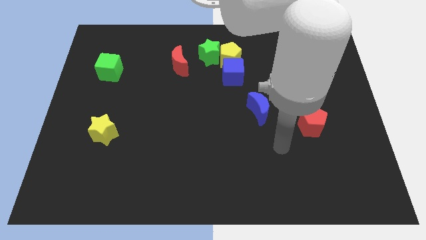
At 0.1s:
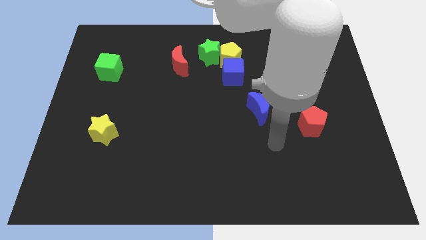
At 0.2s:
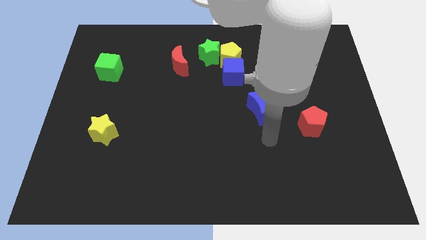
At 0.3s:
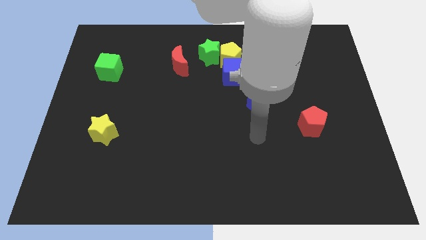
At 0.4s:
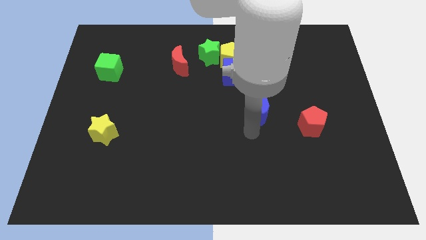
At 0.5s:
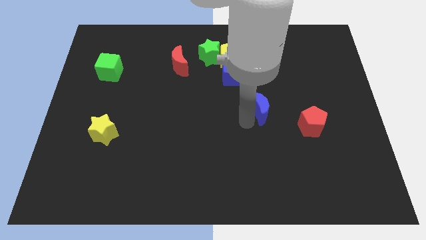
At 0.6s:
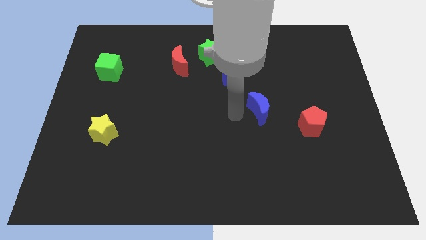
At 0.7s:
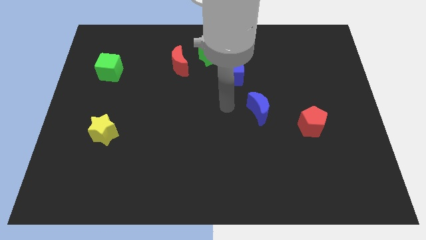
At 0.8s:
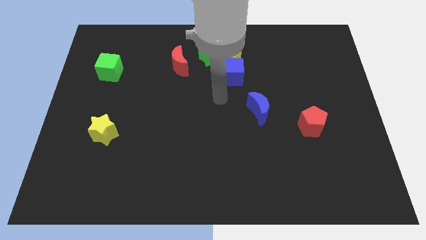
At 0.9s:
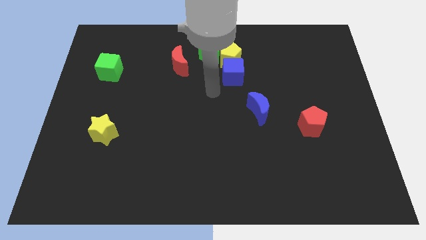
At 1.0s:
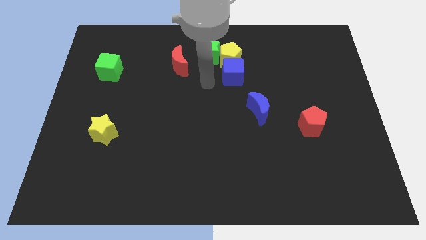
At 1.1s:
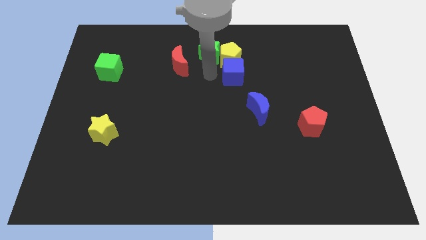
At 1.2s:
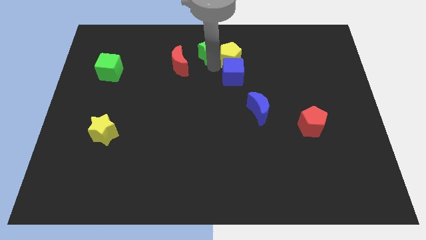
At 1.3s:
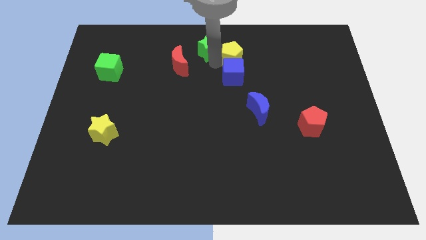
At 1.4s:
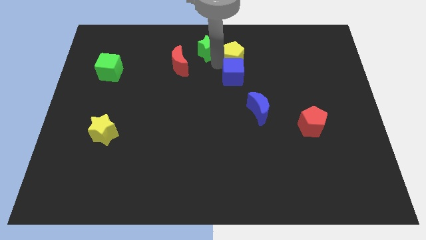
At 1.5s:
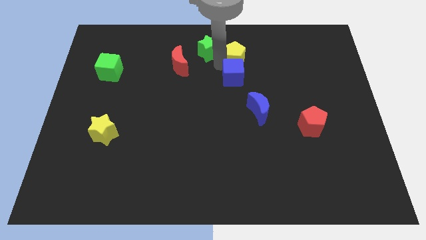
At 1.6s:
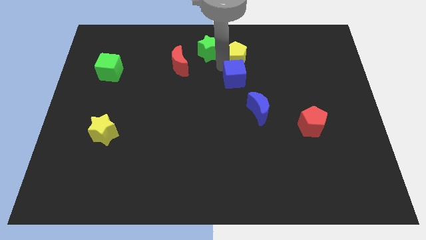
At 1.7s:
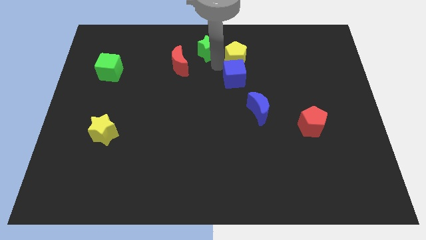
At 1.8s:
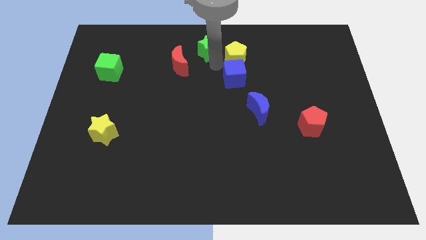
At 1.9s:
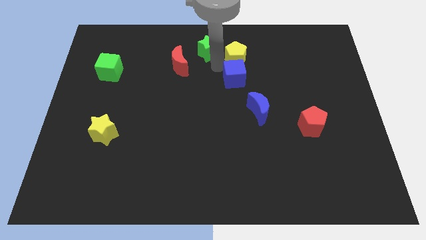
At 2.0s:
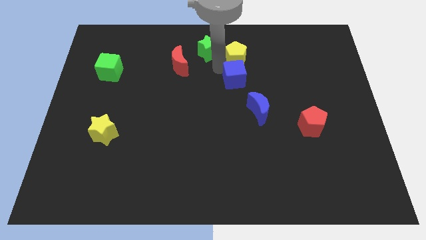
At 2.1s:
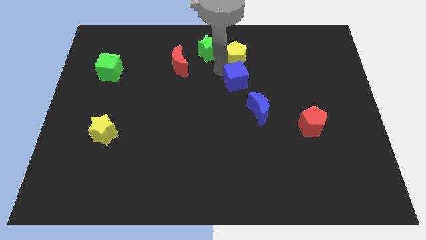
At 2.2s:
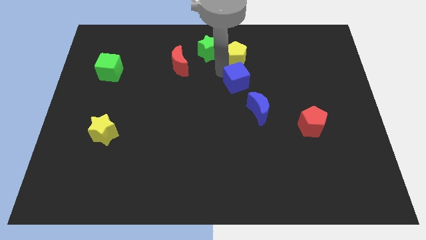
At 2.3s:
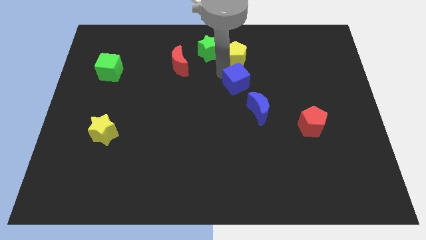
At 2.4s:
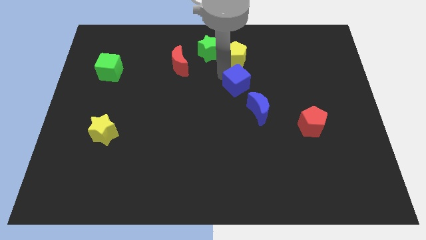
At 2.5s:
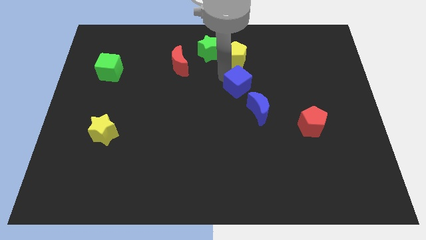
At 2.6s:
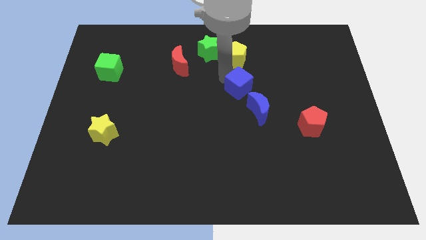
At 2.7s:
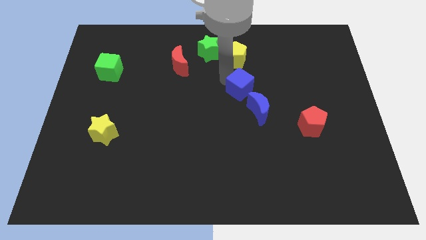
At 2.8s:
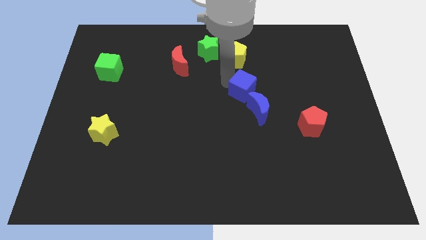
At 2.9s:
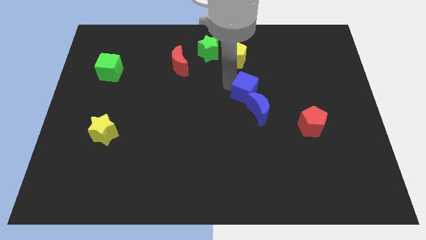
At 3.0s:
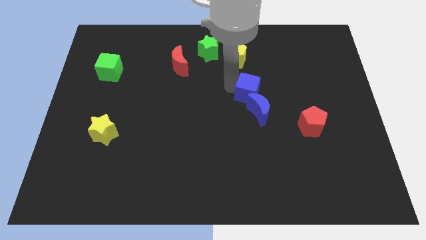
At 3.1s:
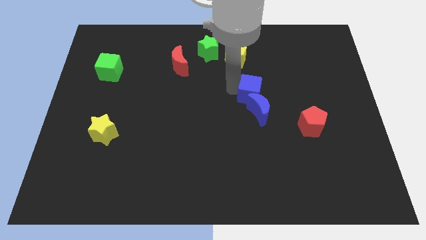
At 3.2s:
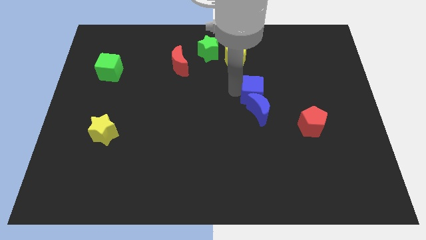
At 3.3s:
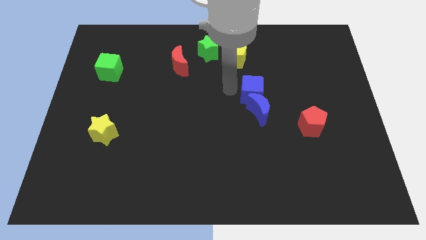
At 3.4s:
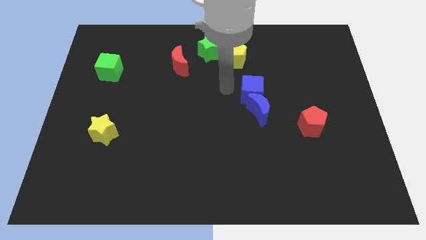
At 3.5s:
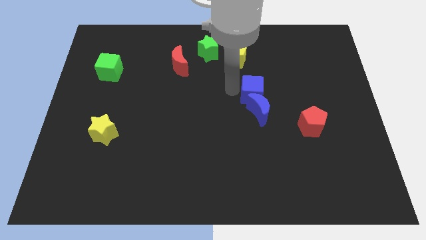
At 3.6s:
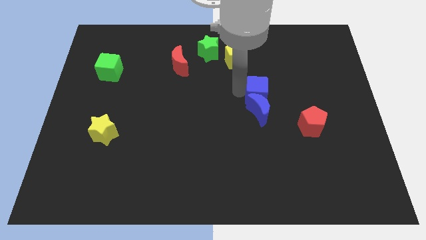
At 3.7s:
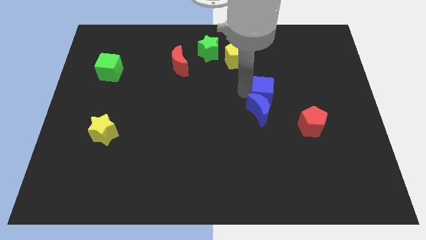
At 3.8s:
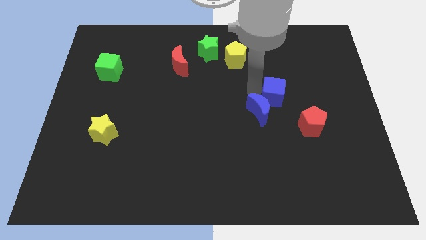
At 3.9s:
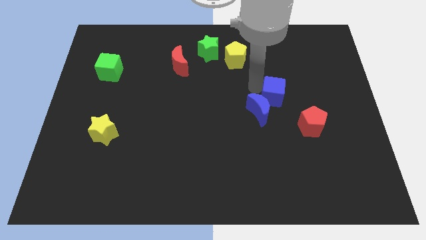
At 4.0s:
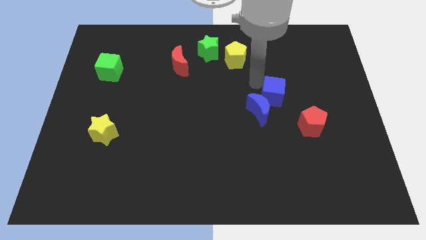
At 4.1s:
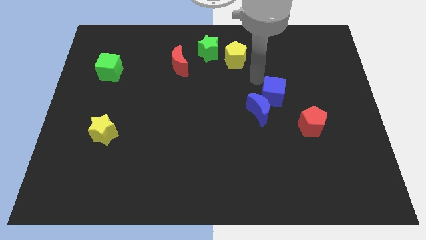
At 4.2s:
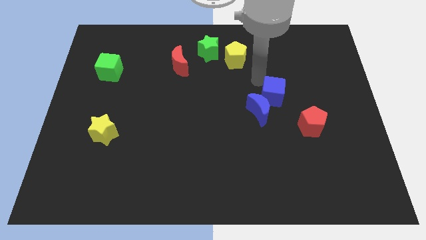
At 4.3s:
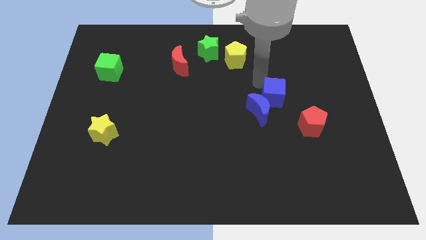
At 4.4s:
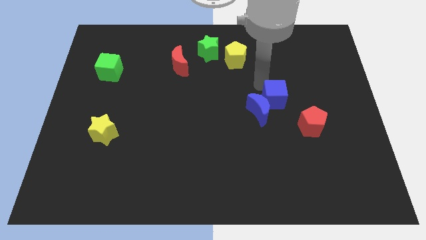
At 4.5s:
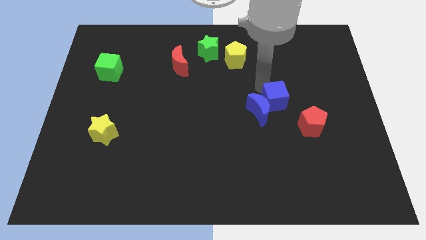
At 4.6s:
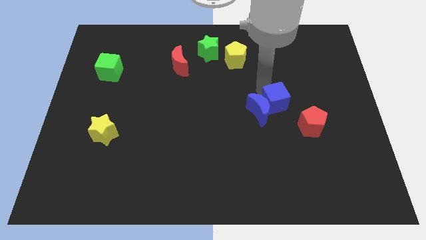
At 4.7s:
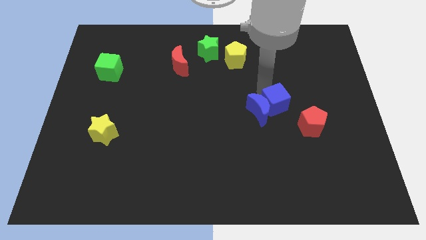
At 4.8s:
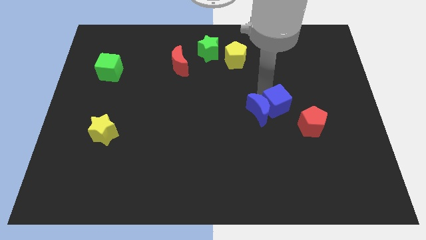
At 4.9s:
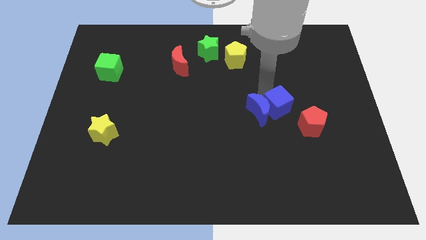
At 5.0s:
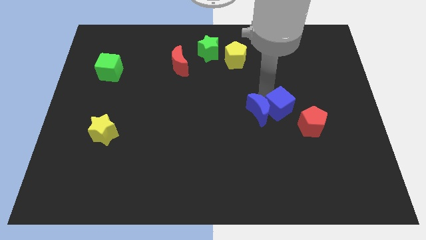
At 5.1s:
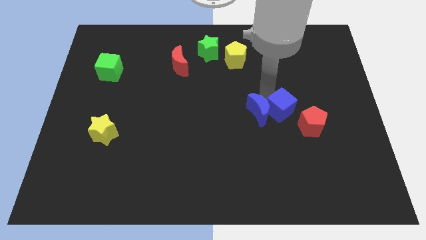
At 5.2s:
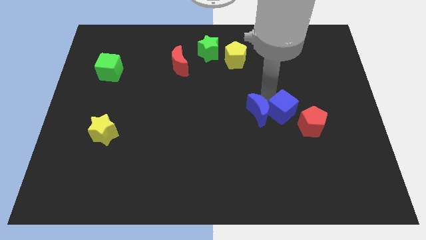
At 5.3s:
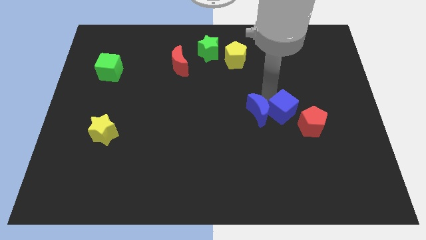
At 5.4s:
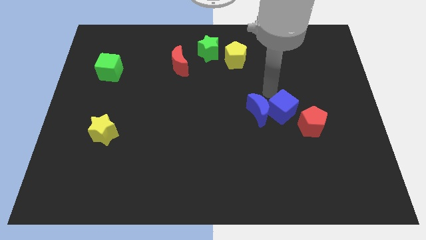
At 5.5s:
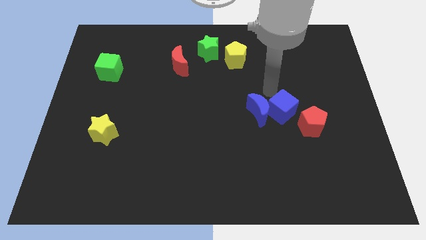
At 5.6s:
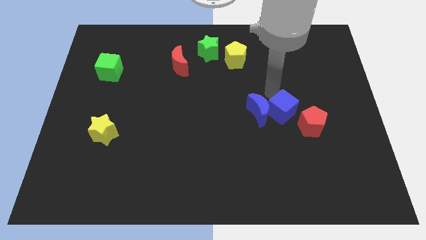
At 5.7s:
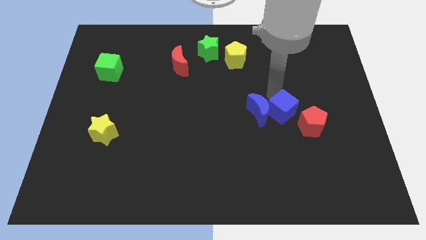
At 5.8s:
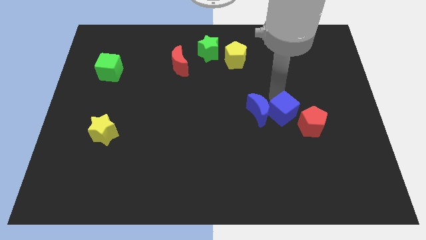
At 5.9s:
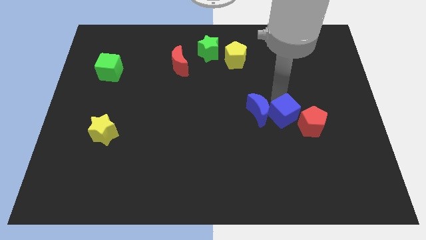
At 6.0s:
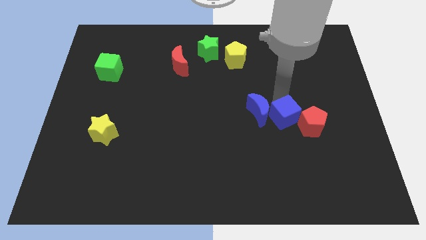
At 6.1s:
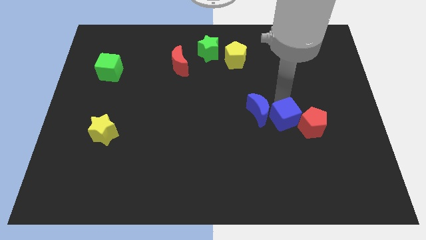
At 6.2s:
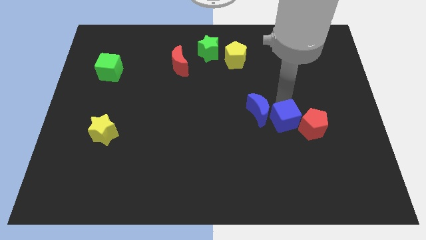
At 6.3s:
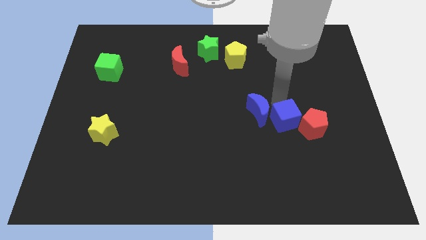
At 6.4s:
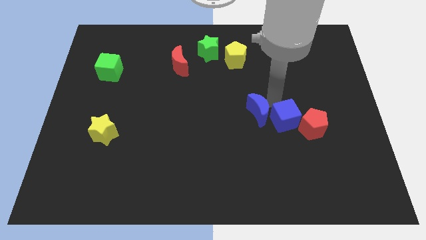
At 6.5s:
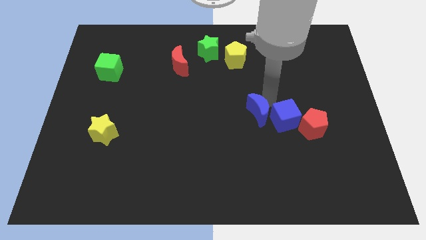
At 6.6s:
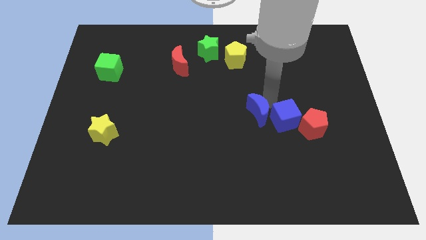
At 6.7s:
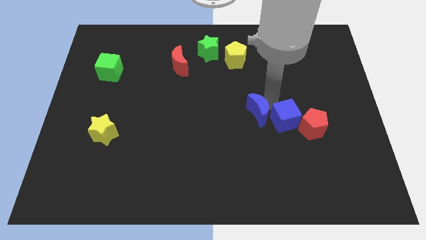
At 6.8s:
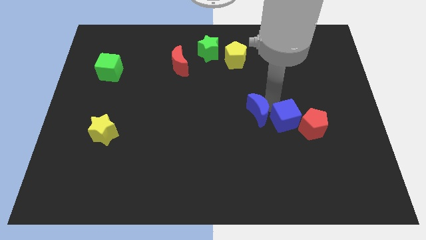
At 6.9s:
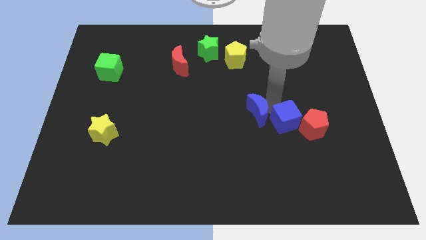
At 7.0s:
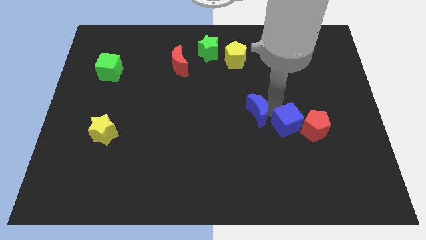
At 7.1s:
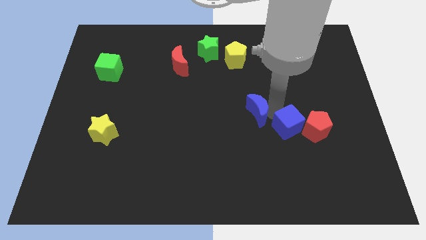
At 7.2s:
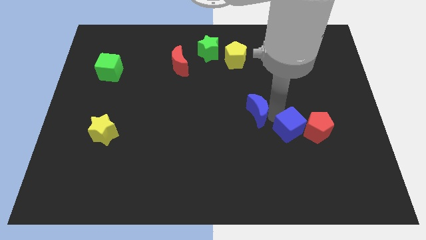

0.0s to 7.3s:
move the blue cube downwards and right

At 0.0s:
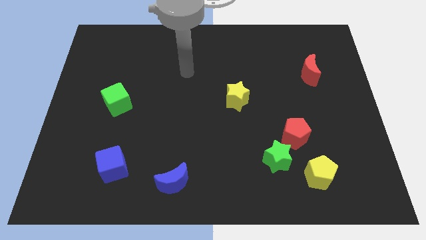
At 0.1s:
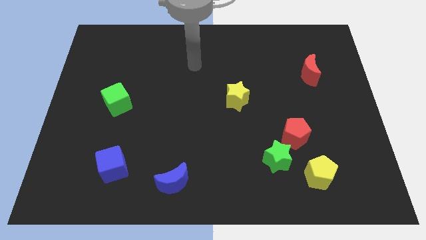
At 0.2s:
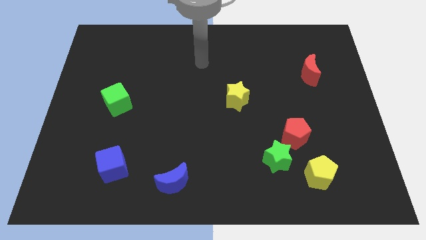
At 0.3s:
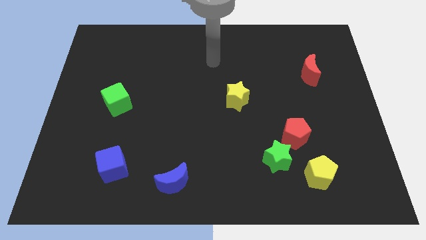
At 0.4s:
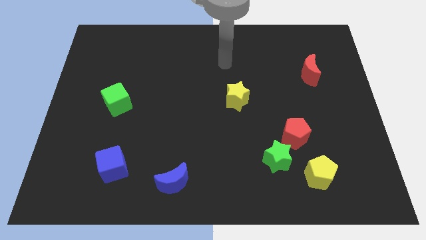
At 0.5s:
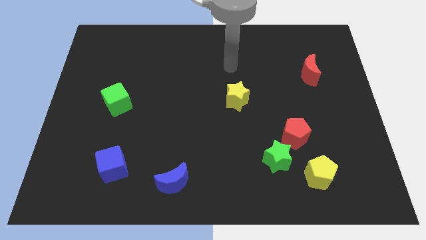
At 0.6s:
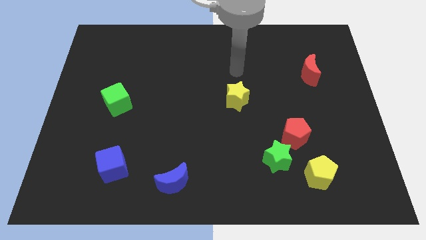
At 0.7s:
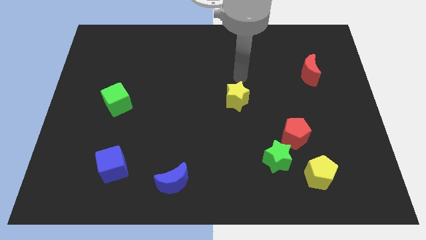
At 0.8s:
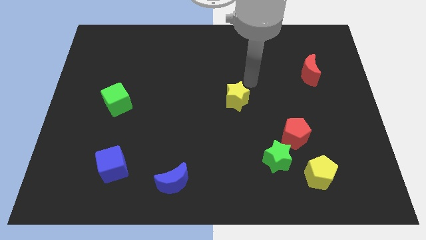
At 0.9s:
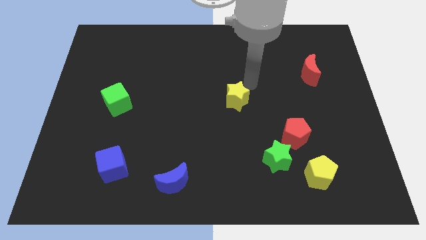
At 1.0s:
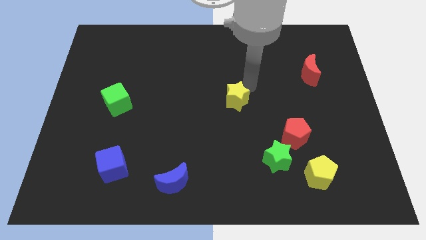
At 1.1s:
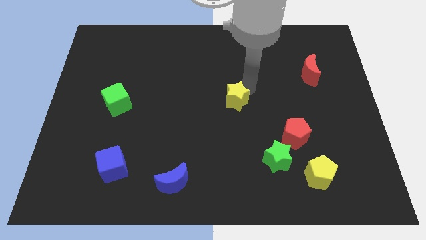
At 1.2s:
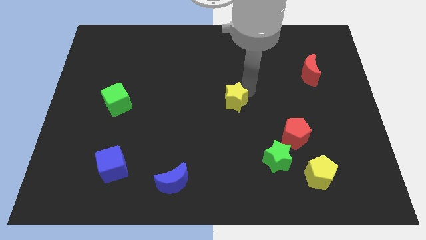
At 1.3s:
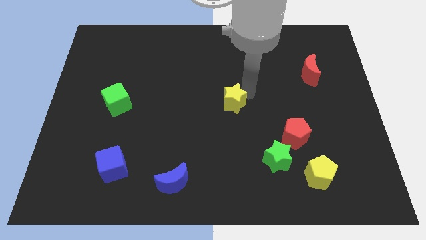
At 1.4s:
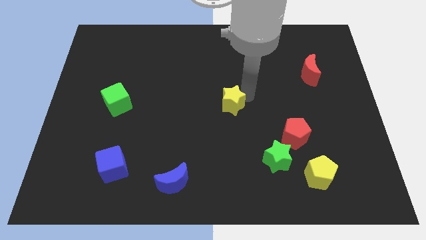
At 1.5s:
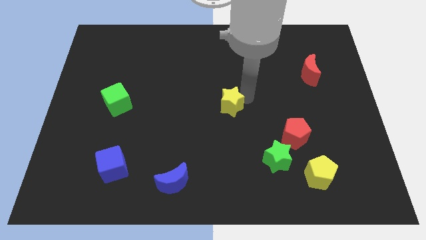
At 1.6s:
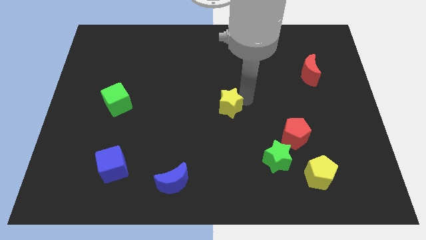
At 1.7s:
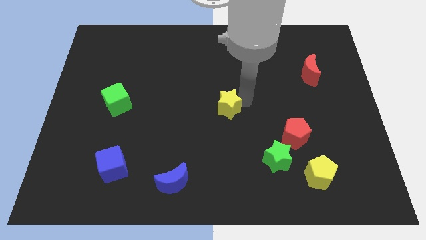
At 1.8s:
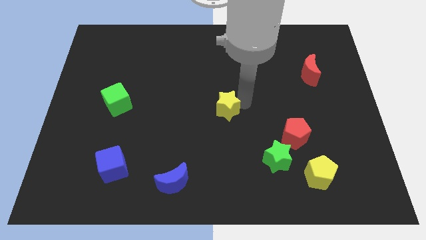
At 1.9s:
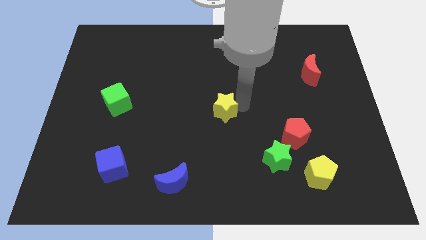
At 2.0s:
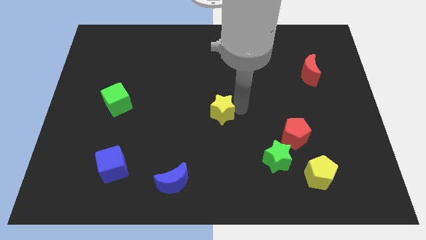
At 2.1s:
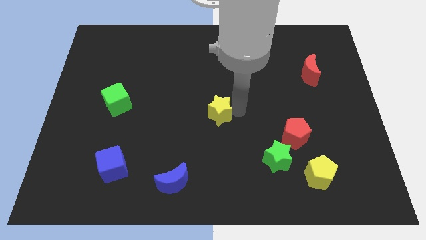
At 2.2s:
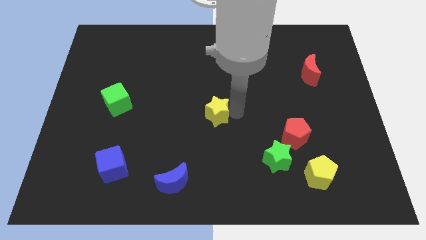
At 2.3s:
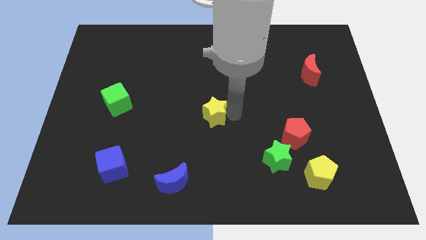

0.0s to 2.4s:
slide the yellow star a little downwards and left
